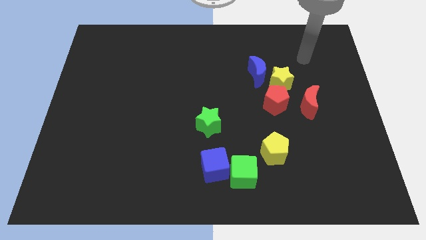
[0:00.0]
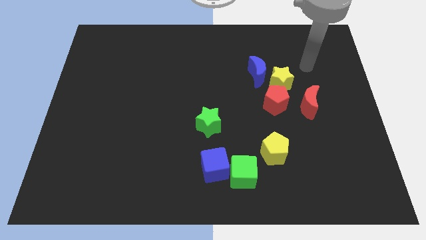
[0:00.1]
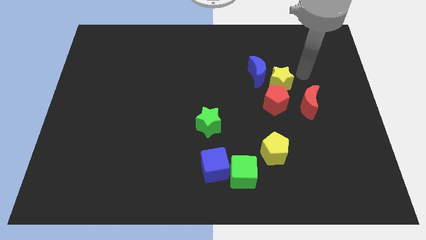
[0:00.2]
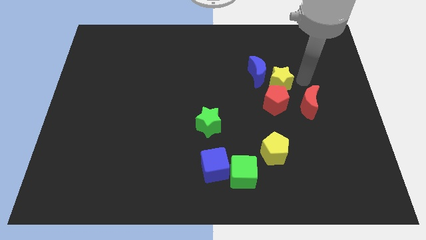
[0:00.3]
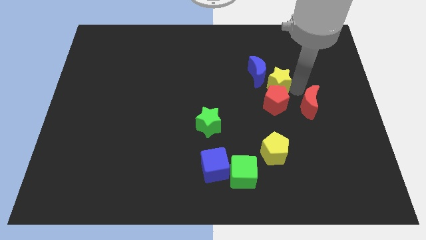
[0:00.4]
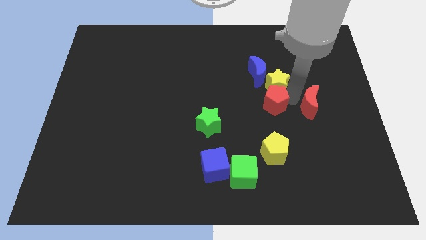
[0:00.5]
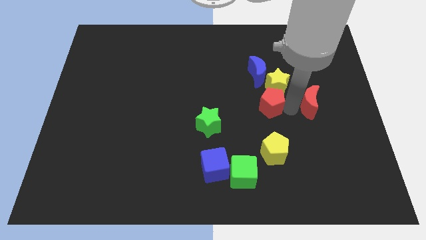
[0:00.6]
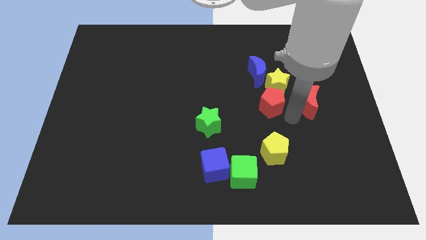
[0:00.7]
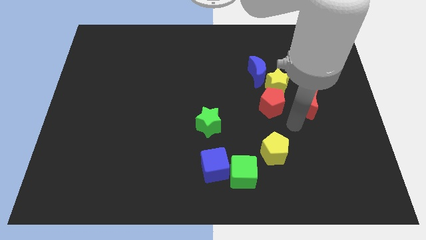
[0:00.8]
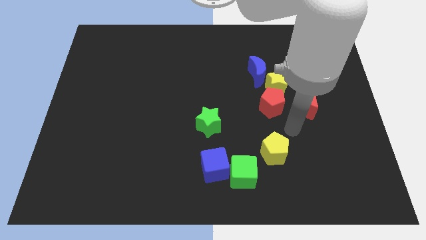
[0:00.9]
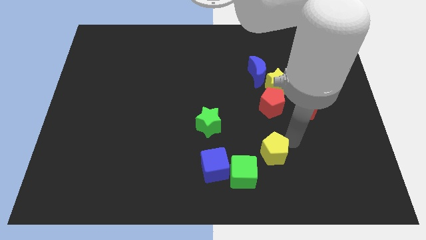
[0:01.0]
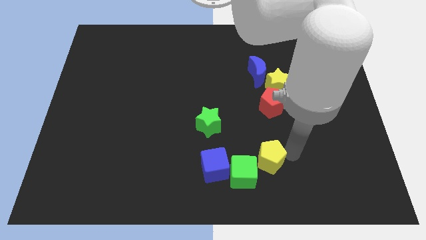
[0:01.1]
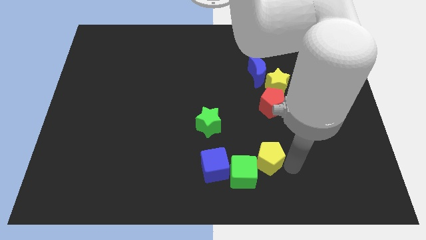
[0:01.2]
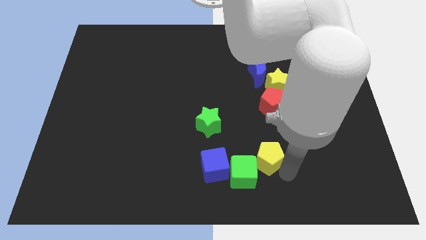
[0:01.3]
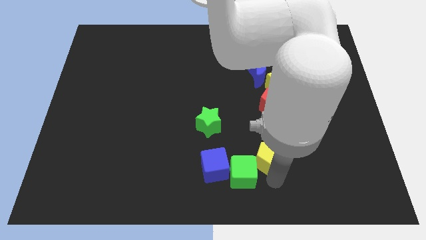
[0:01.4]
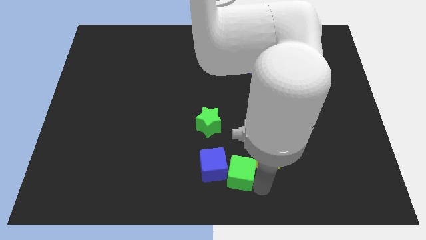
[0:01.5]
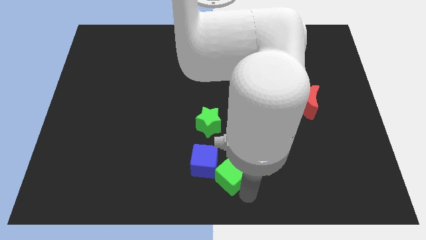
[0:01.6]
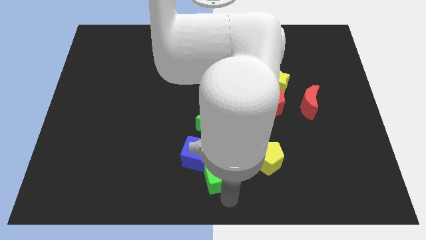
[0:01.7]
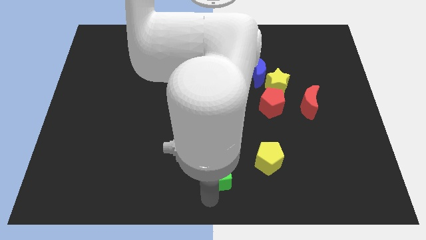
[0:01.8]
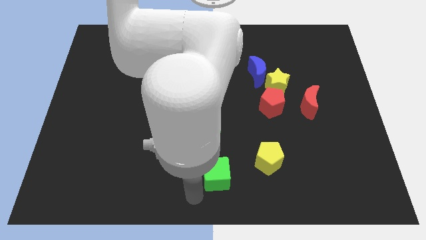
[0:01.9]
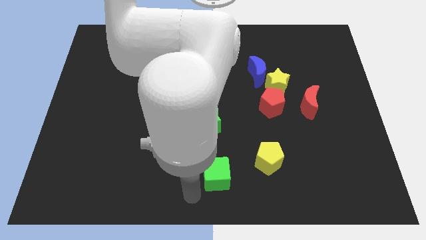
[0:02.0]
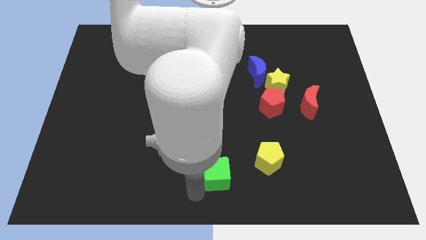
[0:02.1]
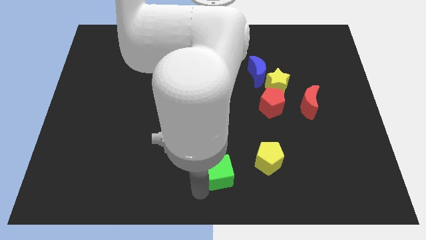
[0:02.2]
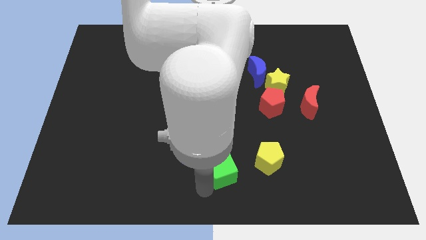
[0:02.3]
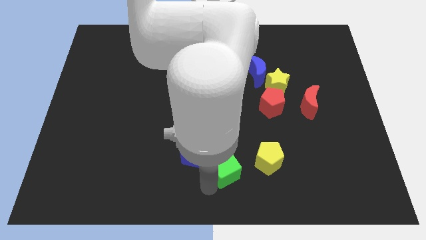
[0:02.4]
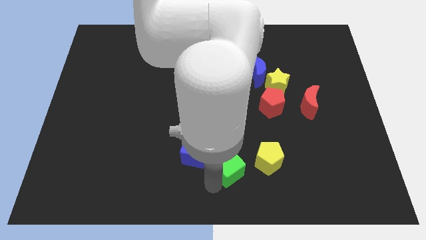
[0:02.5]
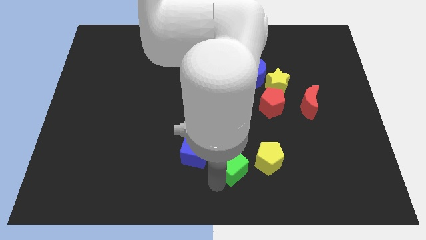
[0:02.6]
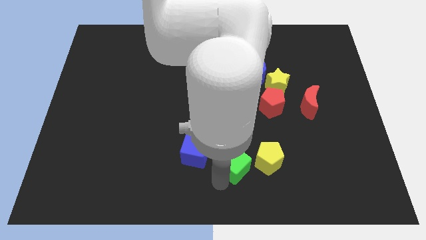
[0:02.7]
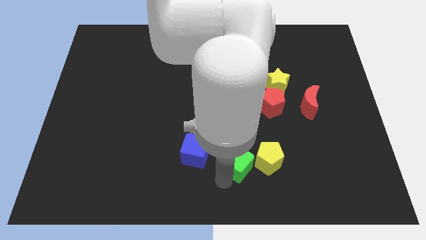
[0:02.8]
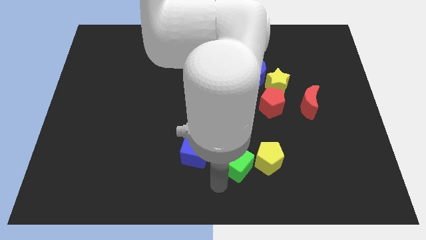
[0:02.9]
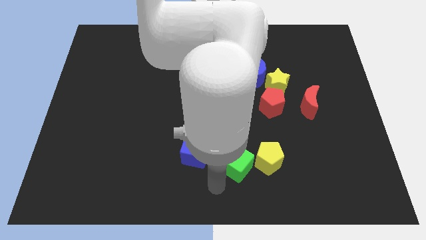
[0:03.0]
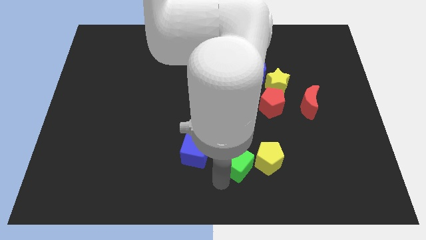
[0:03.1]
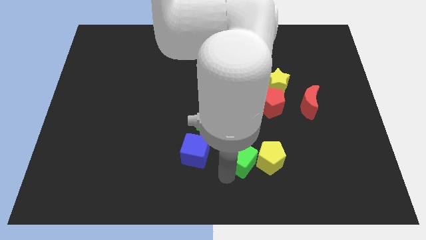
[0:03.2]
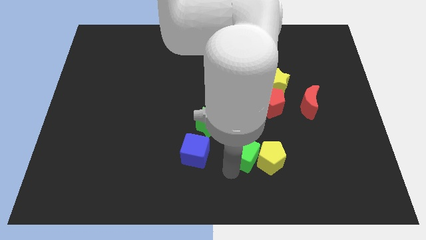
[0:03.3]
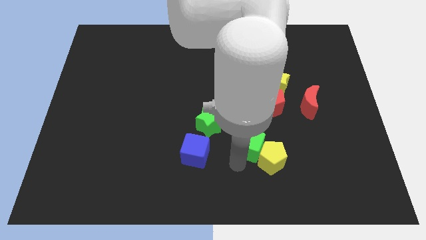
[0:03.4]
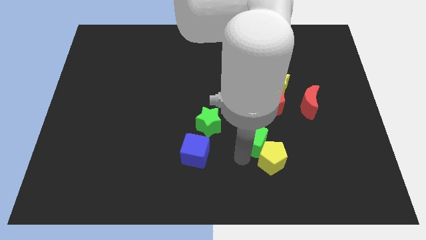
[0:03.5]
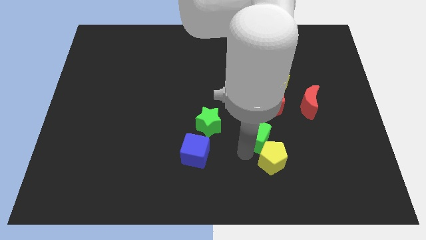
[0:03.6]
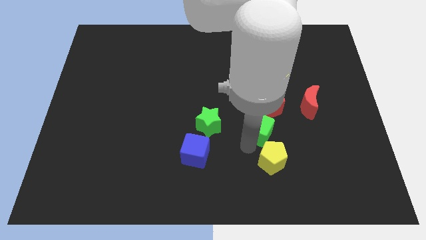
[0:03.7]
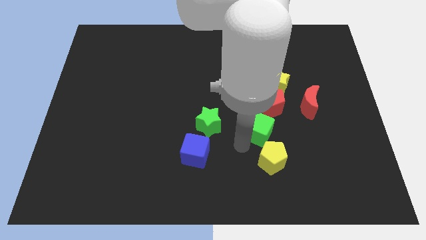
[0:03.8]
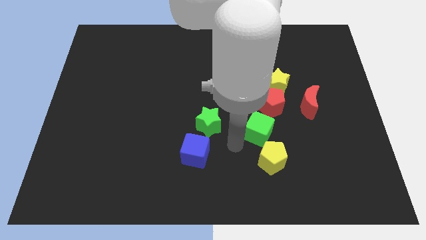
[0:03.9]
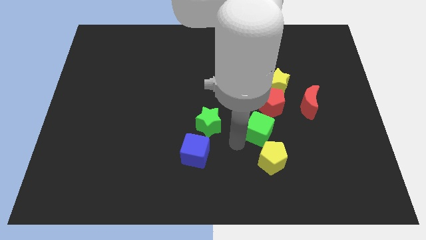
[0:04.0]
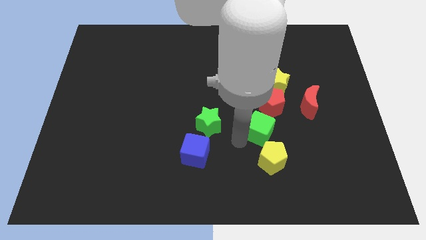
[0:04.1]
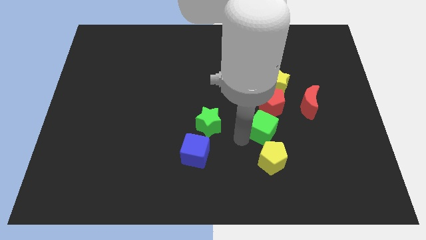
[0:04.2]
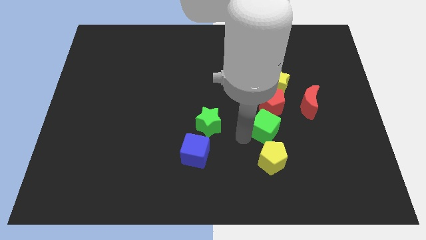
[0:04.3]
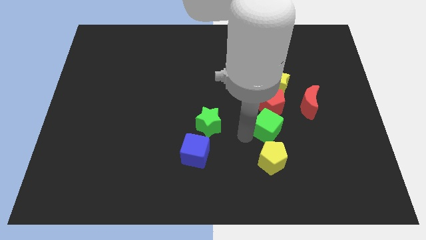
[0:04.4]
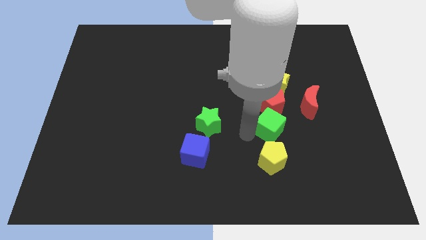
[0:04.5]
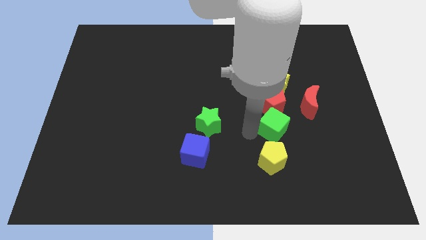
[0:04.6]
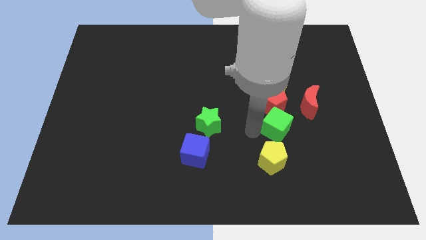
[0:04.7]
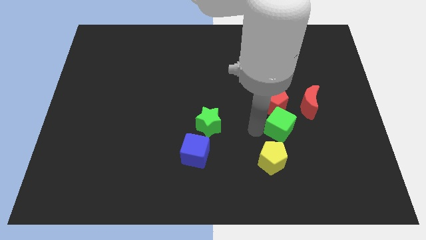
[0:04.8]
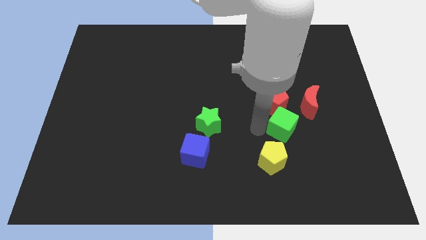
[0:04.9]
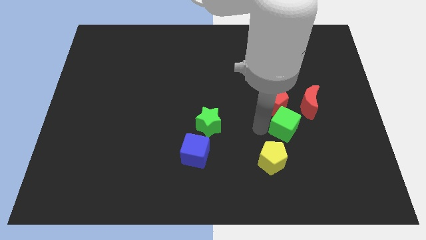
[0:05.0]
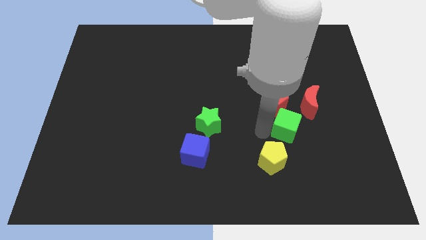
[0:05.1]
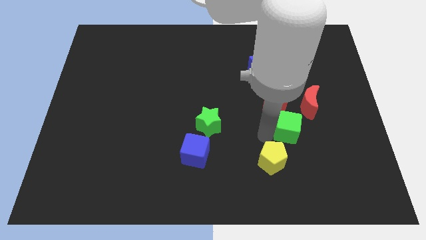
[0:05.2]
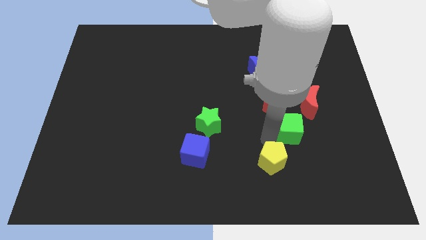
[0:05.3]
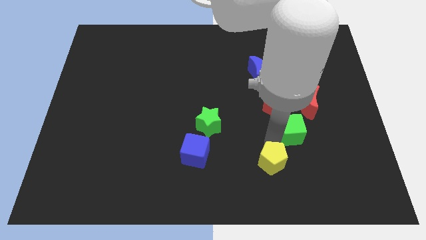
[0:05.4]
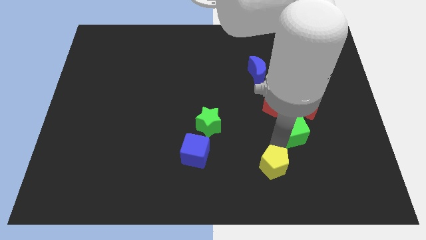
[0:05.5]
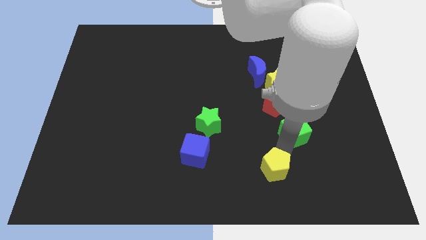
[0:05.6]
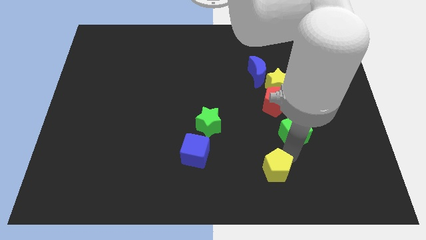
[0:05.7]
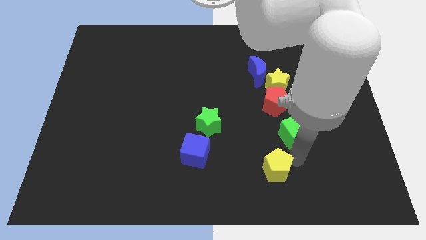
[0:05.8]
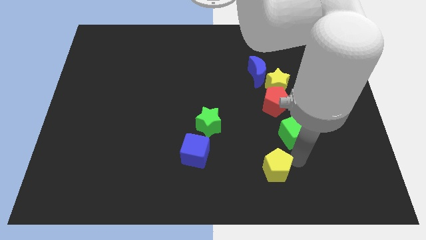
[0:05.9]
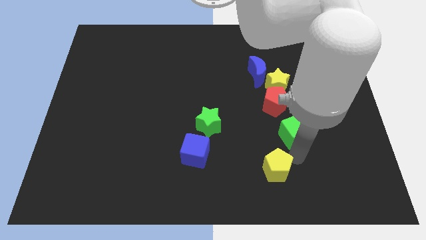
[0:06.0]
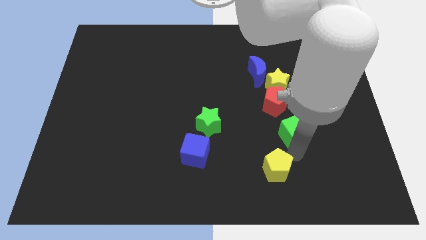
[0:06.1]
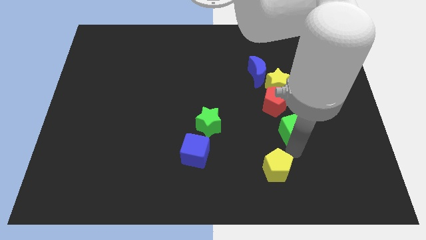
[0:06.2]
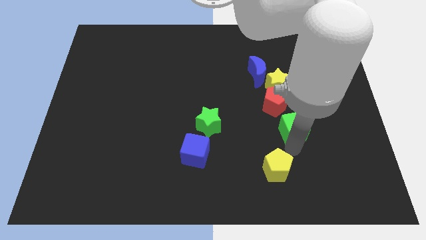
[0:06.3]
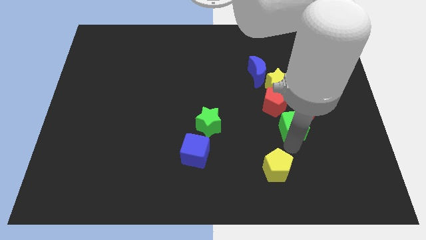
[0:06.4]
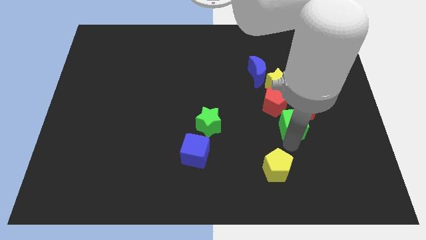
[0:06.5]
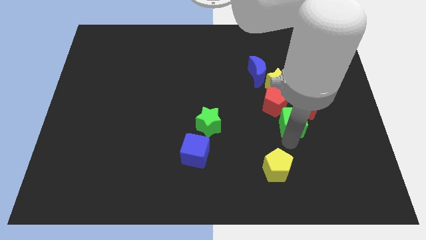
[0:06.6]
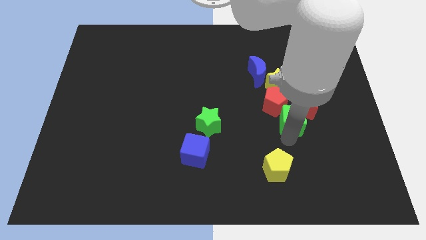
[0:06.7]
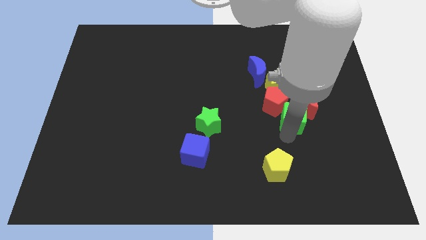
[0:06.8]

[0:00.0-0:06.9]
put the green cube next to the red moon

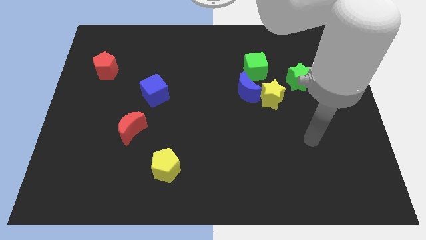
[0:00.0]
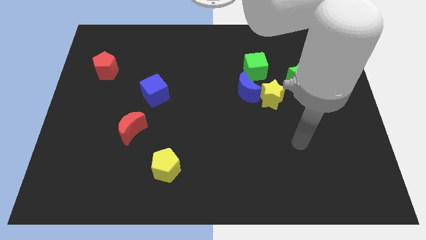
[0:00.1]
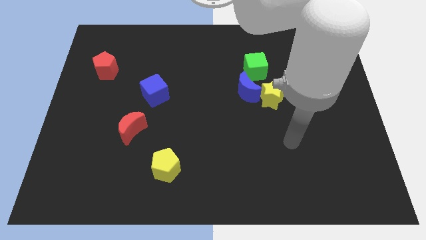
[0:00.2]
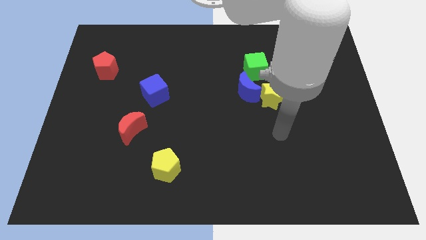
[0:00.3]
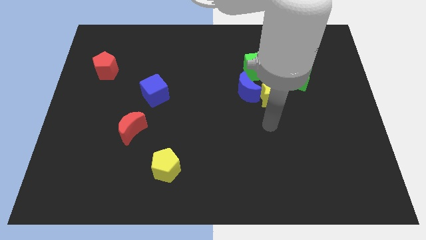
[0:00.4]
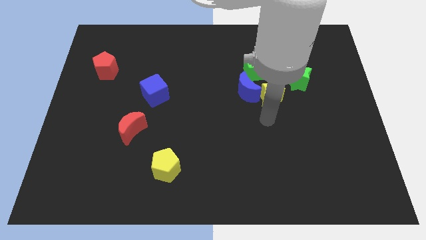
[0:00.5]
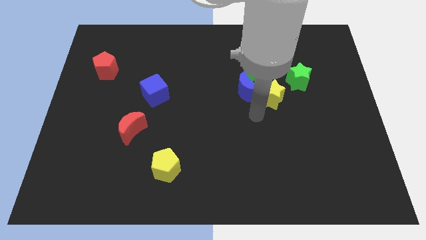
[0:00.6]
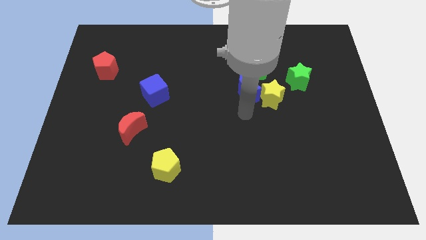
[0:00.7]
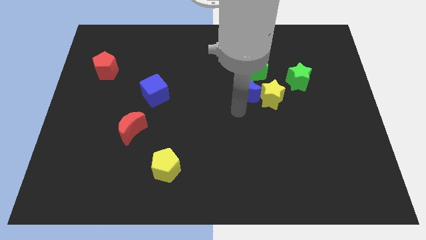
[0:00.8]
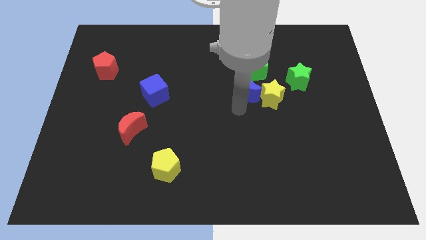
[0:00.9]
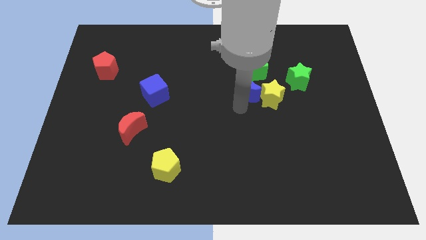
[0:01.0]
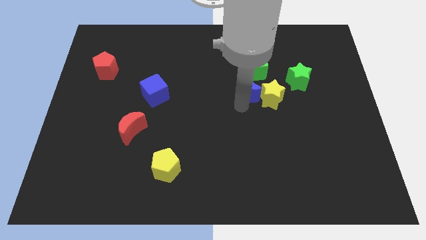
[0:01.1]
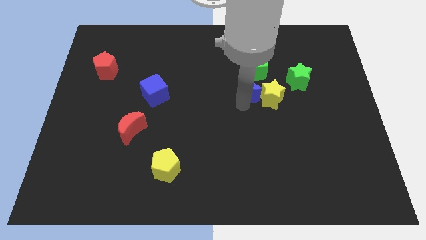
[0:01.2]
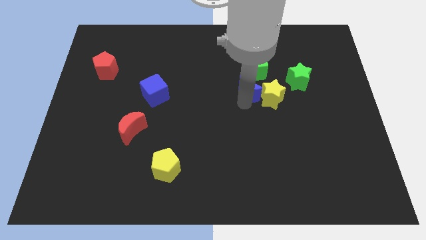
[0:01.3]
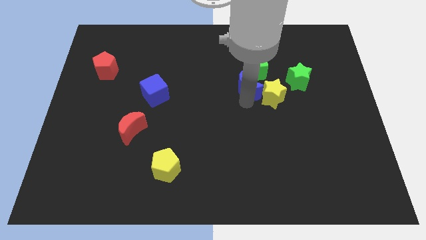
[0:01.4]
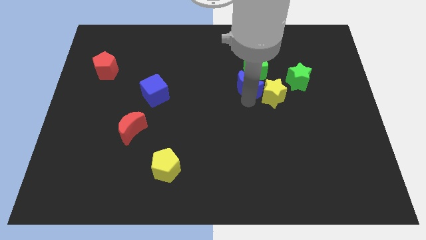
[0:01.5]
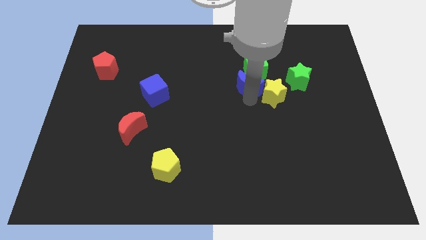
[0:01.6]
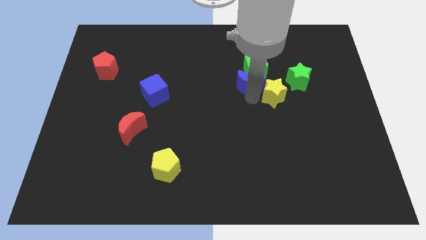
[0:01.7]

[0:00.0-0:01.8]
slide the blue moon to the green cube
